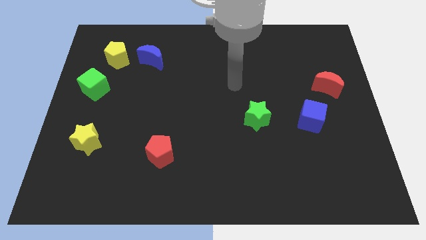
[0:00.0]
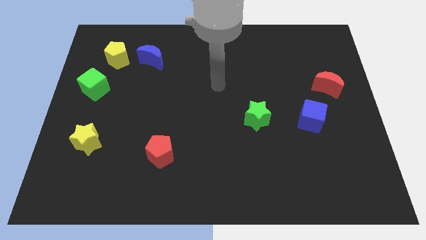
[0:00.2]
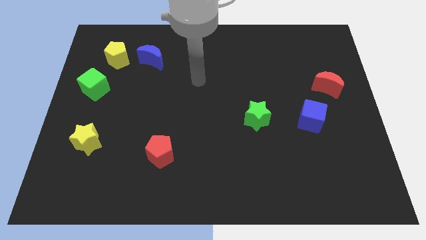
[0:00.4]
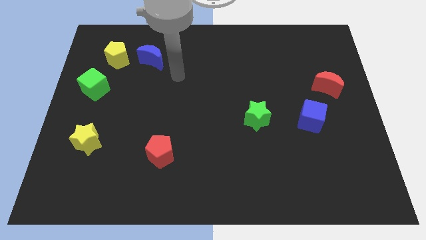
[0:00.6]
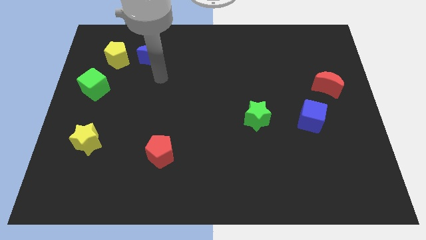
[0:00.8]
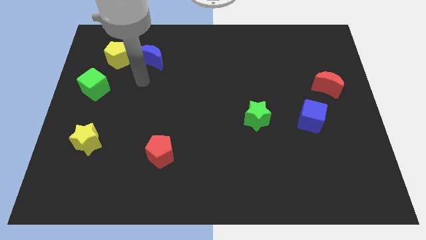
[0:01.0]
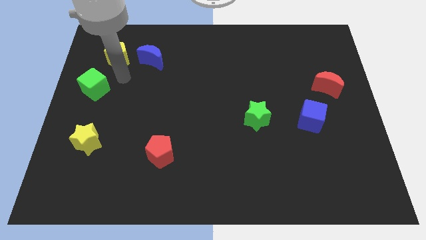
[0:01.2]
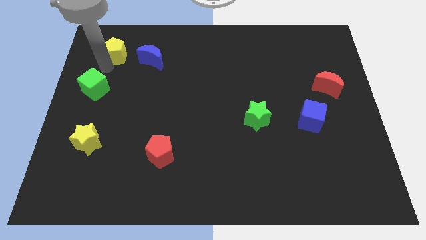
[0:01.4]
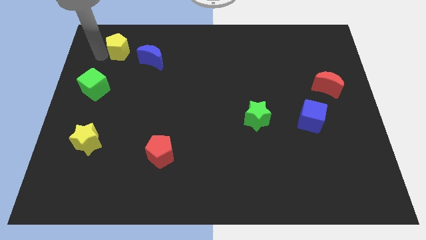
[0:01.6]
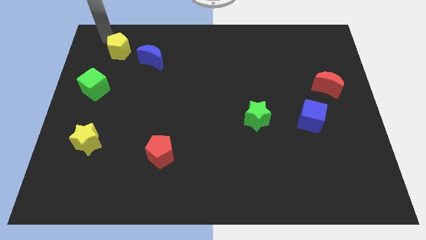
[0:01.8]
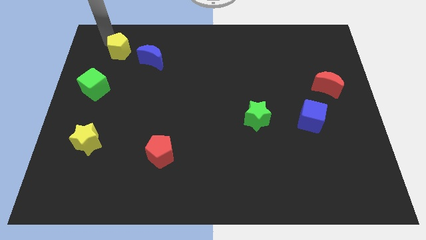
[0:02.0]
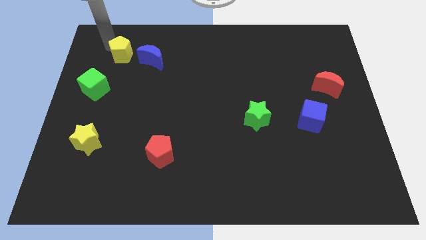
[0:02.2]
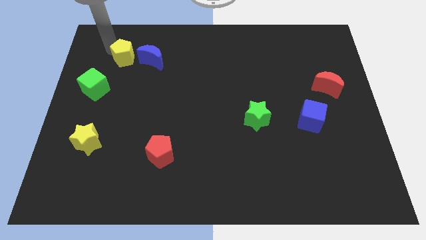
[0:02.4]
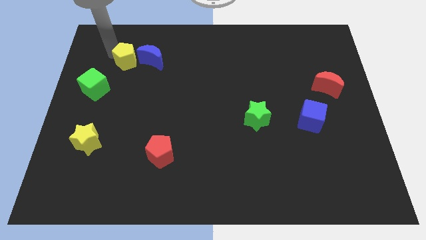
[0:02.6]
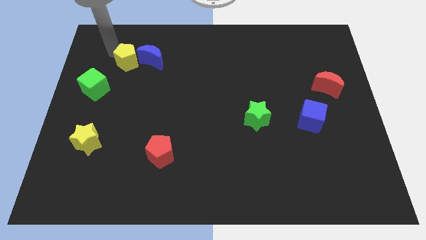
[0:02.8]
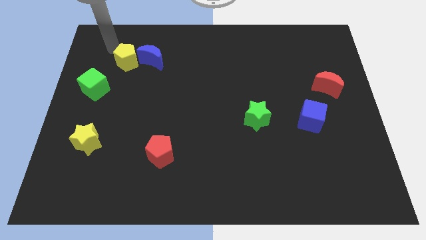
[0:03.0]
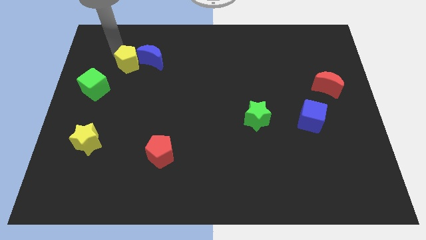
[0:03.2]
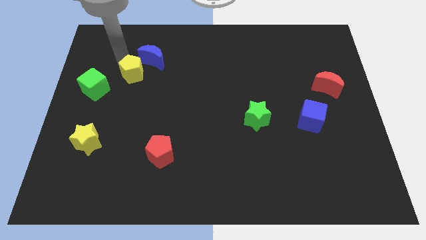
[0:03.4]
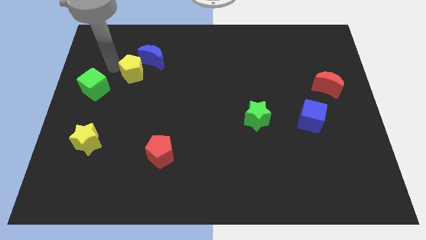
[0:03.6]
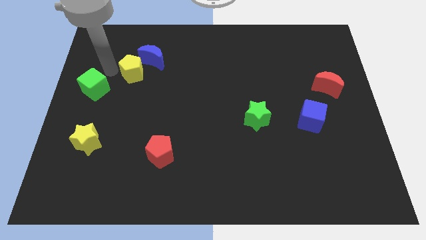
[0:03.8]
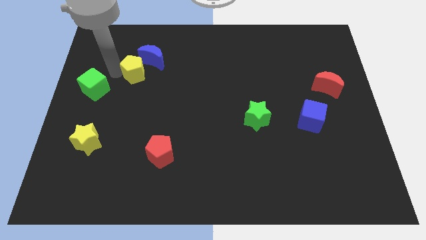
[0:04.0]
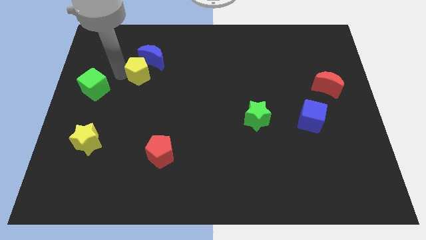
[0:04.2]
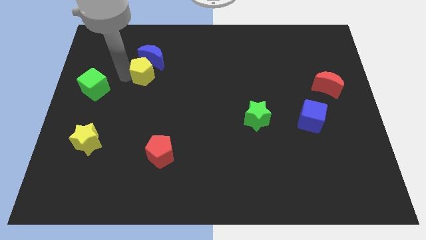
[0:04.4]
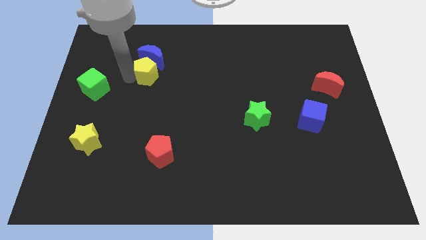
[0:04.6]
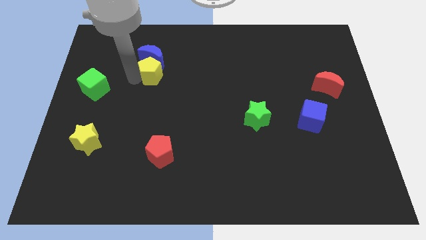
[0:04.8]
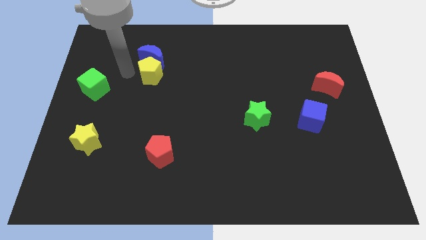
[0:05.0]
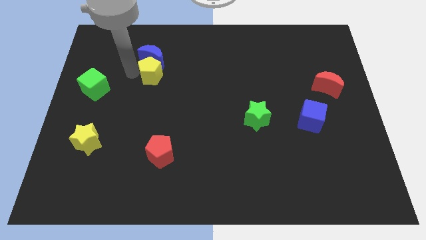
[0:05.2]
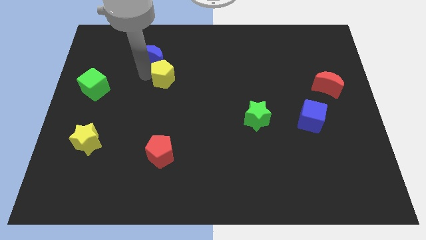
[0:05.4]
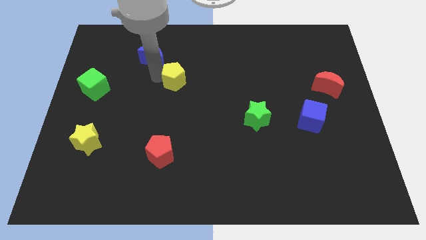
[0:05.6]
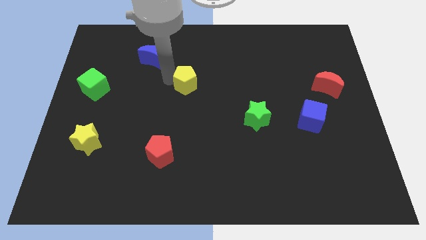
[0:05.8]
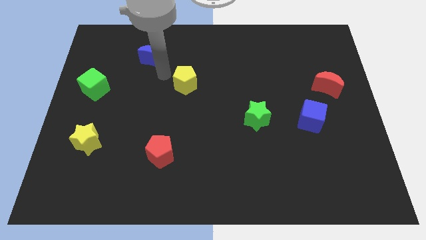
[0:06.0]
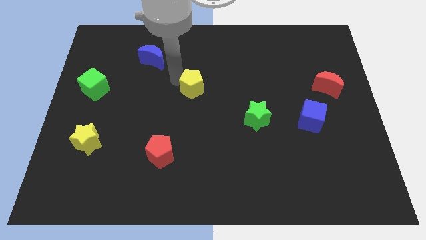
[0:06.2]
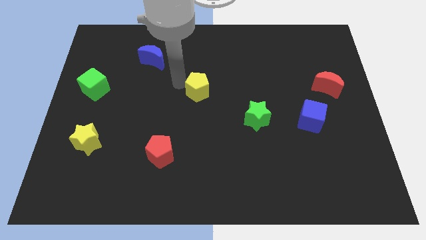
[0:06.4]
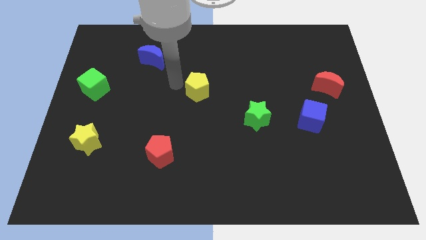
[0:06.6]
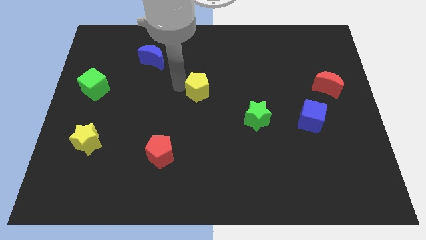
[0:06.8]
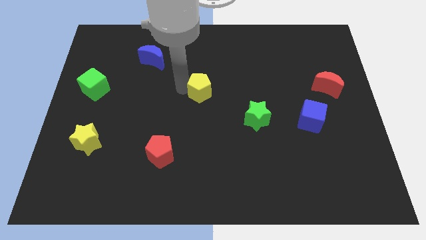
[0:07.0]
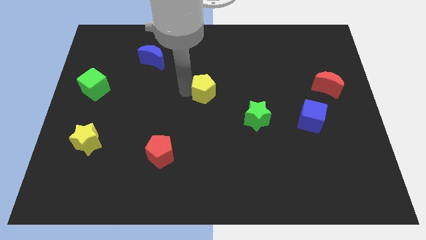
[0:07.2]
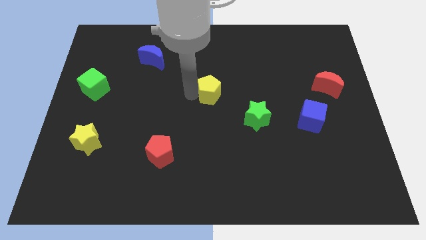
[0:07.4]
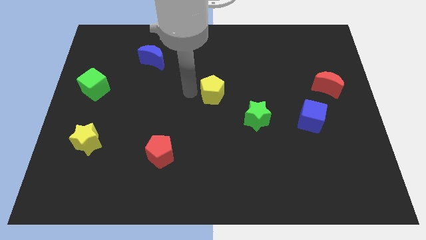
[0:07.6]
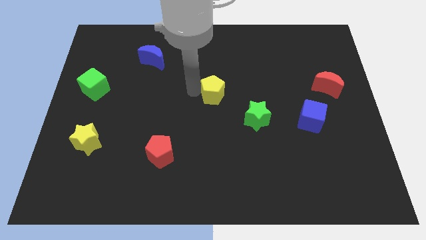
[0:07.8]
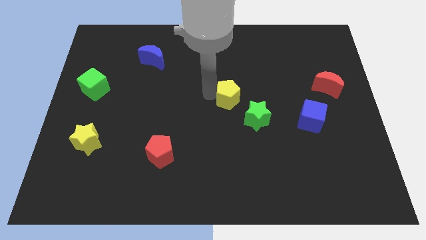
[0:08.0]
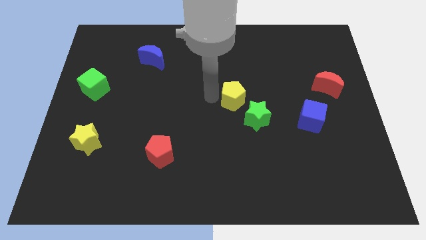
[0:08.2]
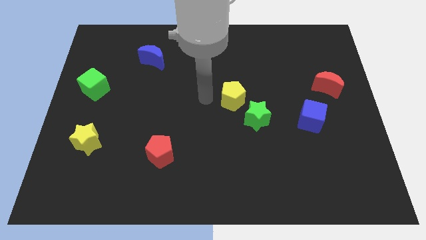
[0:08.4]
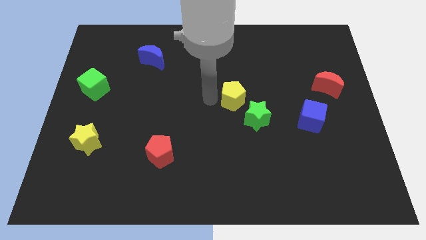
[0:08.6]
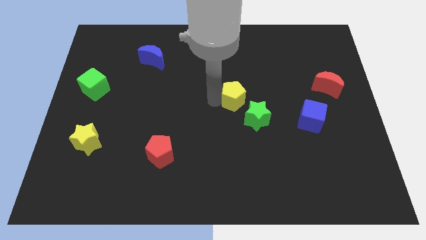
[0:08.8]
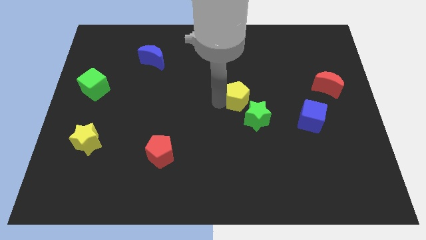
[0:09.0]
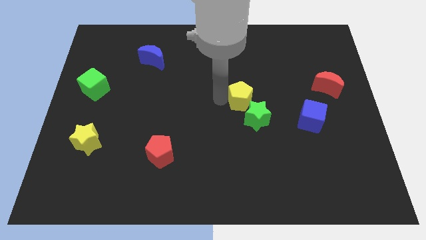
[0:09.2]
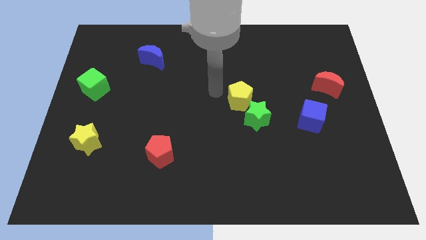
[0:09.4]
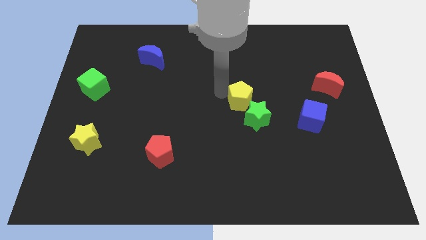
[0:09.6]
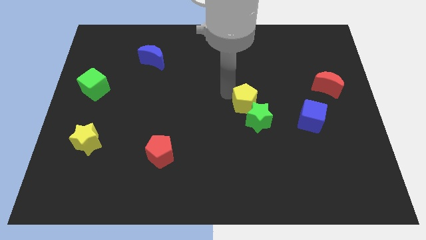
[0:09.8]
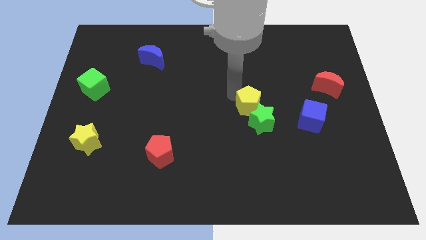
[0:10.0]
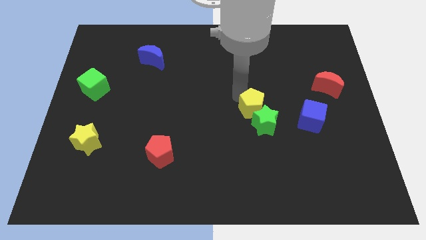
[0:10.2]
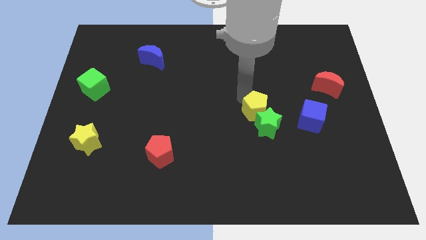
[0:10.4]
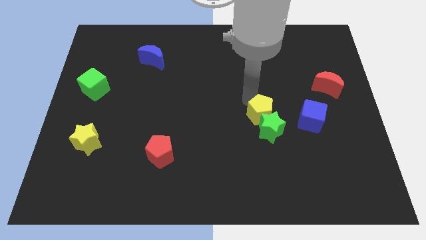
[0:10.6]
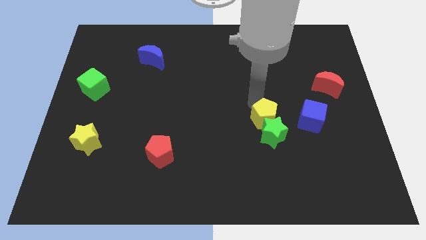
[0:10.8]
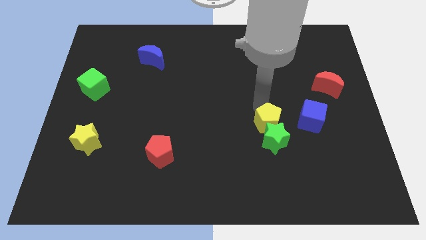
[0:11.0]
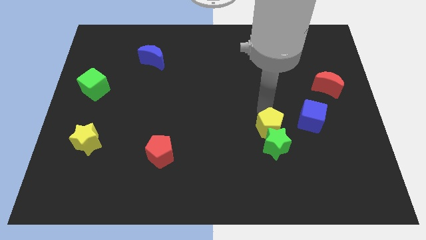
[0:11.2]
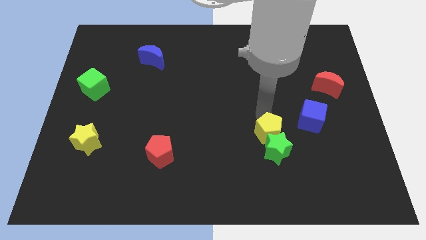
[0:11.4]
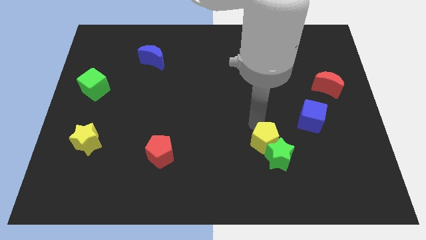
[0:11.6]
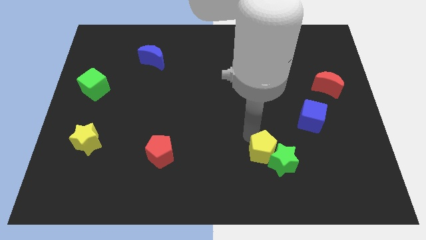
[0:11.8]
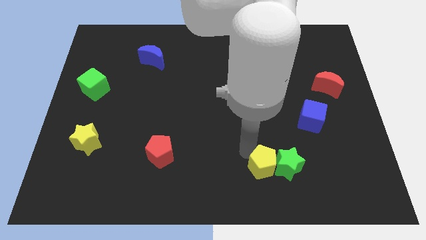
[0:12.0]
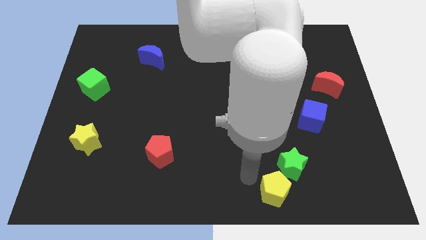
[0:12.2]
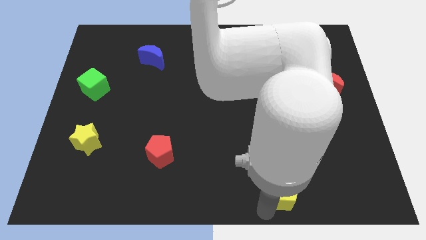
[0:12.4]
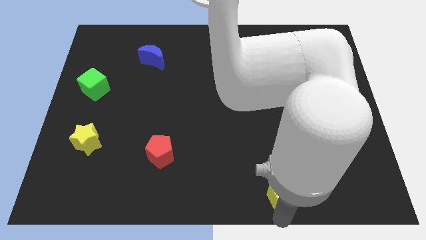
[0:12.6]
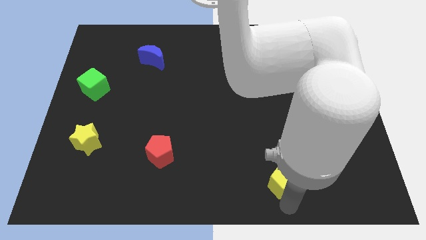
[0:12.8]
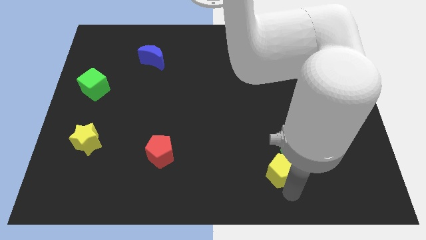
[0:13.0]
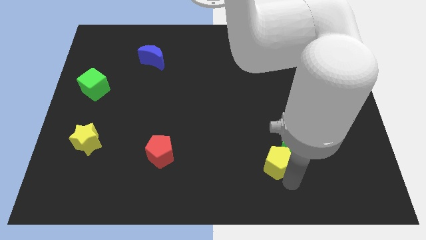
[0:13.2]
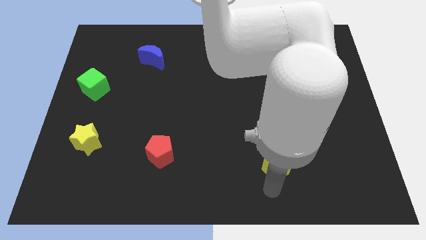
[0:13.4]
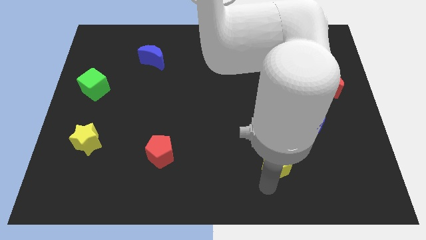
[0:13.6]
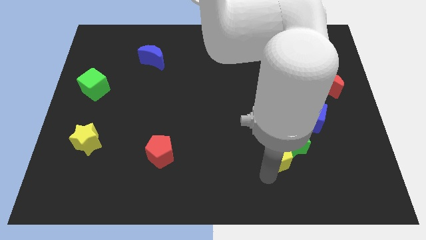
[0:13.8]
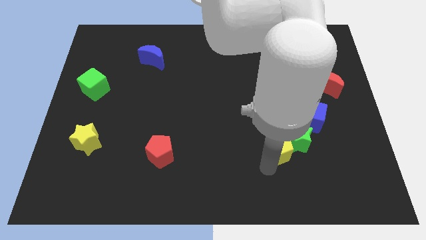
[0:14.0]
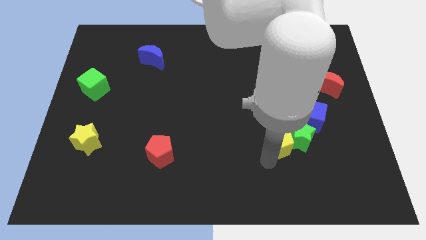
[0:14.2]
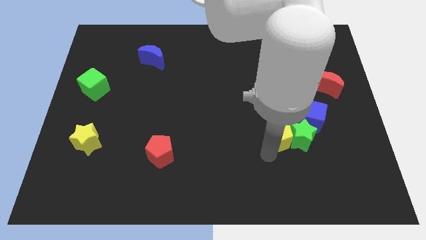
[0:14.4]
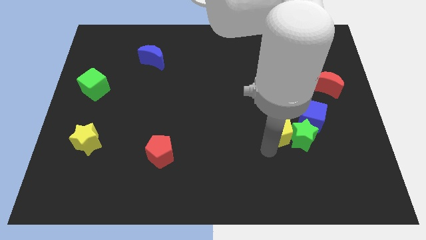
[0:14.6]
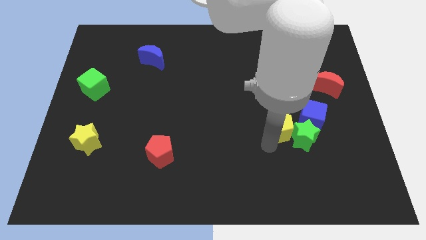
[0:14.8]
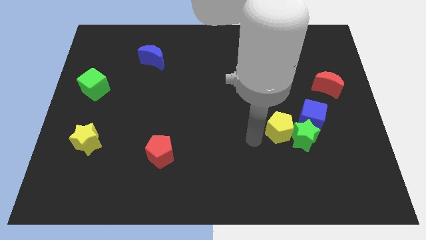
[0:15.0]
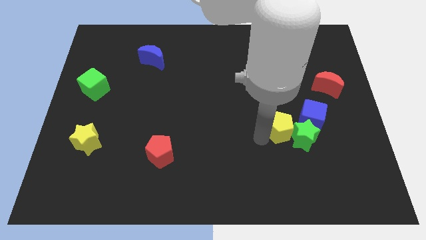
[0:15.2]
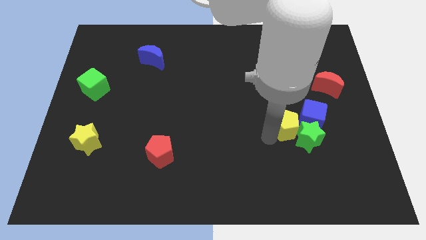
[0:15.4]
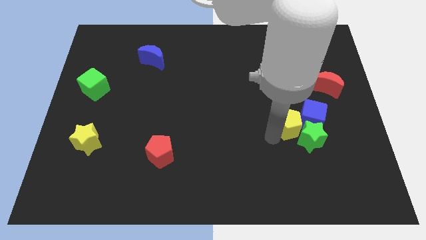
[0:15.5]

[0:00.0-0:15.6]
move the yellow pentagon to the blue cube
